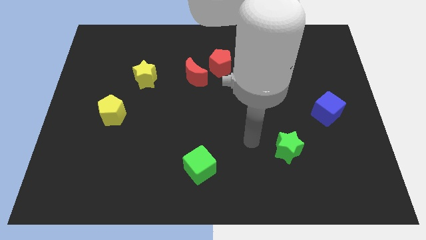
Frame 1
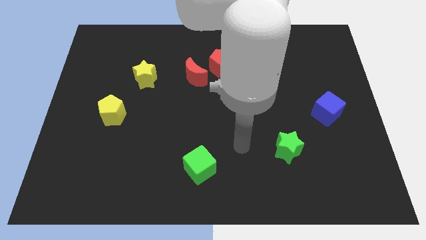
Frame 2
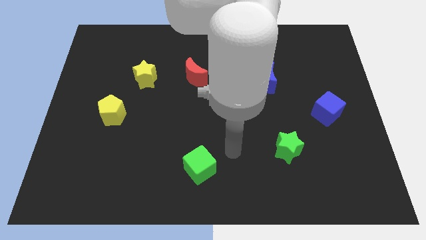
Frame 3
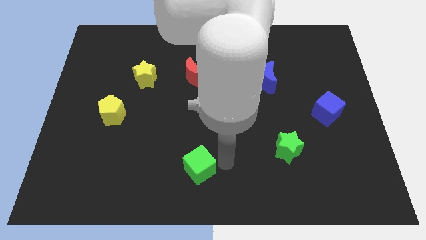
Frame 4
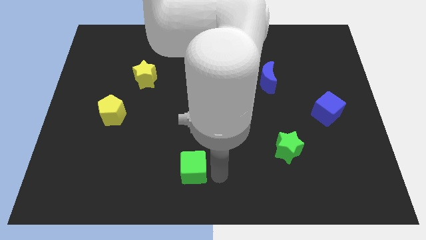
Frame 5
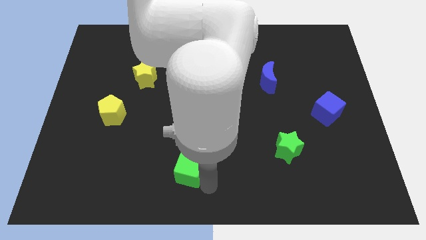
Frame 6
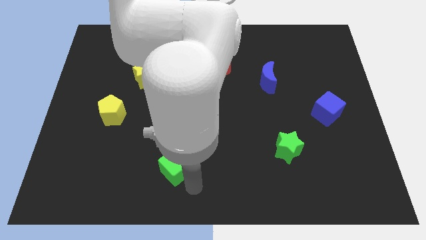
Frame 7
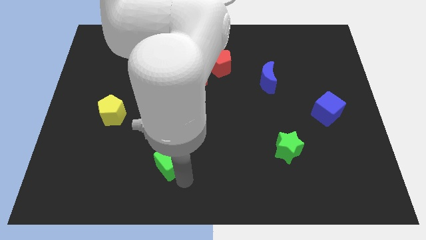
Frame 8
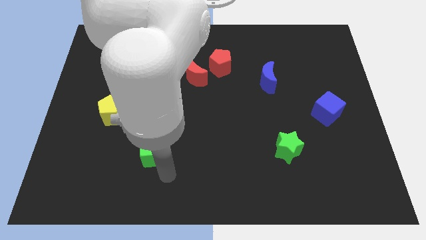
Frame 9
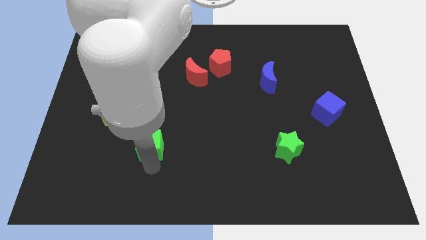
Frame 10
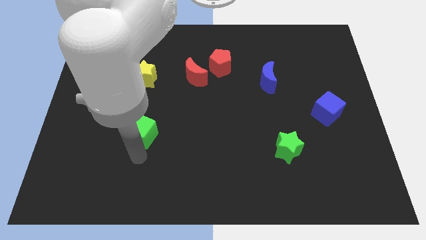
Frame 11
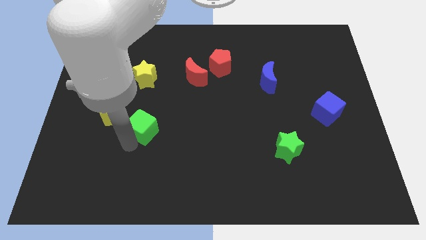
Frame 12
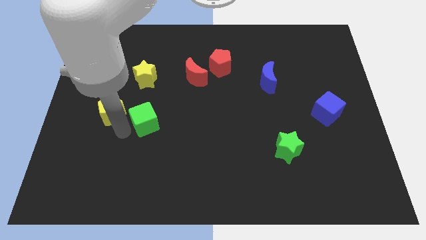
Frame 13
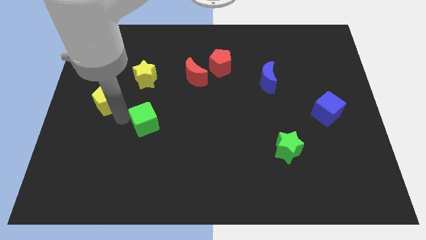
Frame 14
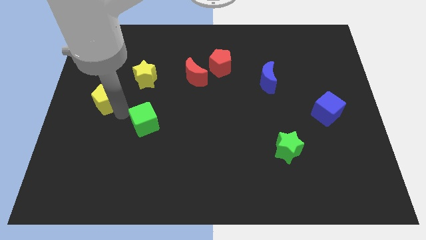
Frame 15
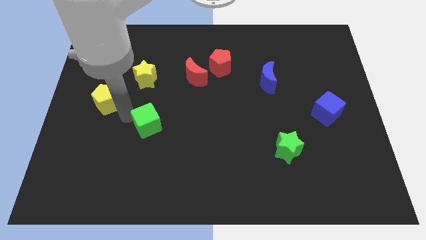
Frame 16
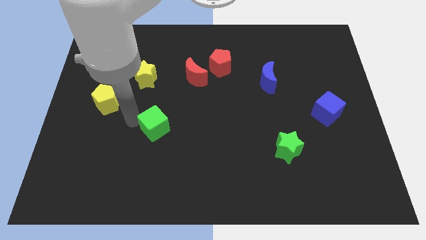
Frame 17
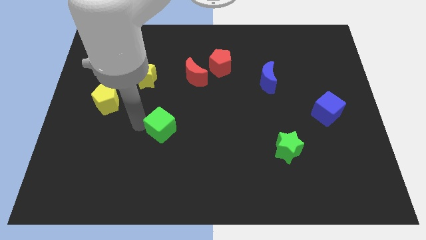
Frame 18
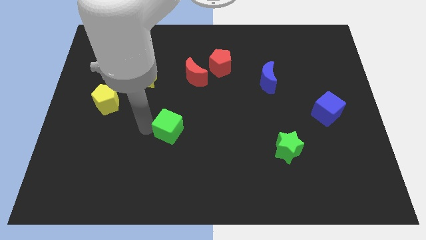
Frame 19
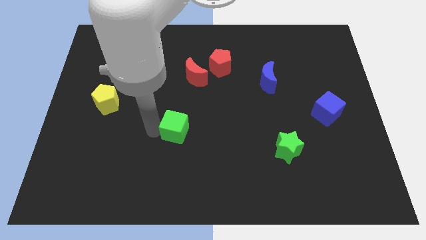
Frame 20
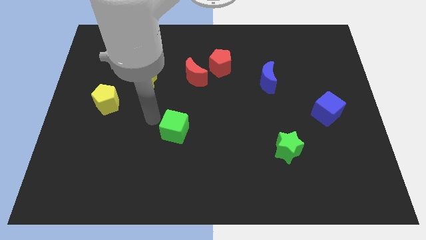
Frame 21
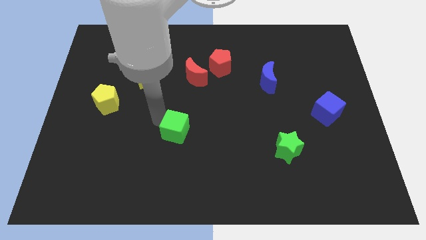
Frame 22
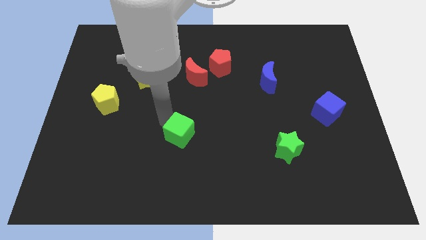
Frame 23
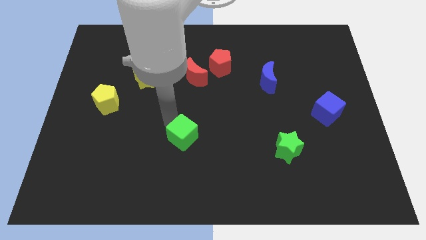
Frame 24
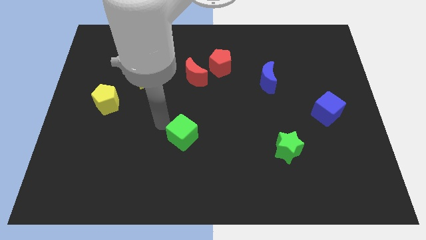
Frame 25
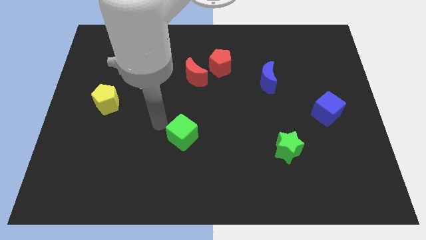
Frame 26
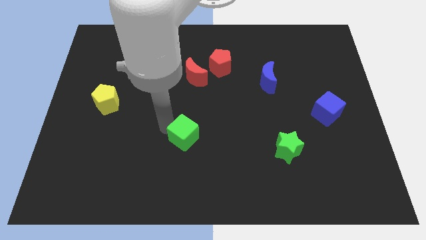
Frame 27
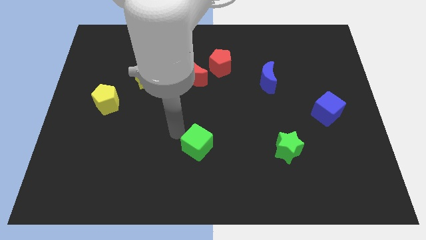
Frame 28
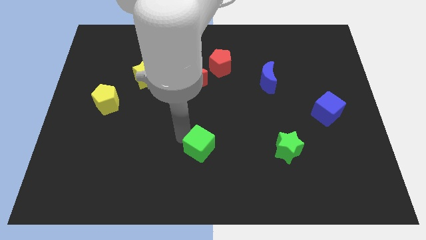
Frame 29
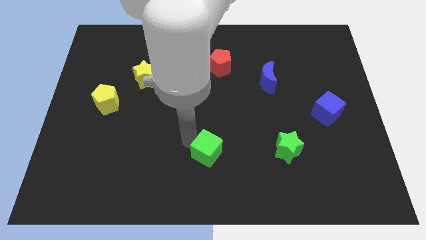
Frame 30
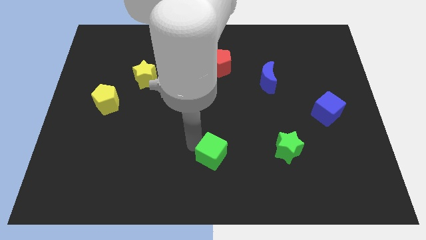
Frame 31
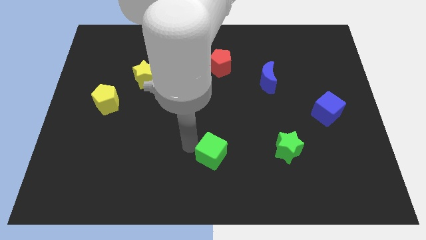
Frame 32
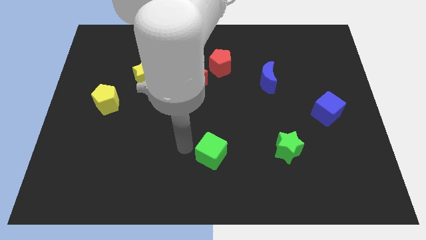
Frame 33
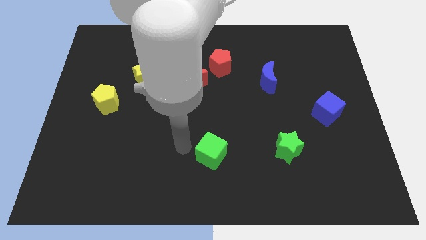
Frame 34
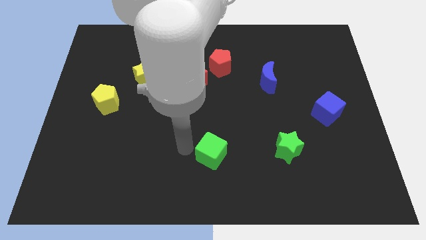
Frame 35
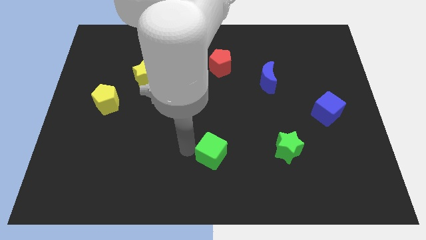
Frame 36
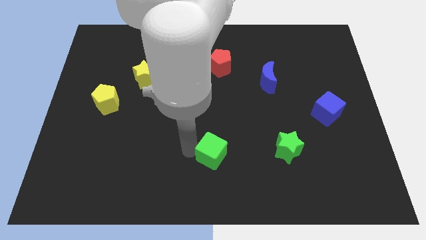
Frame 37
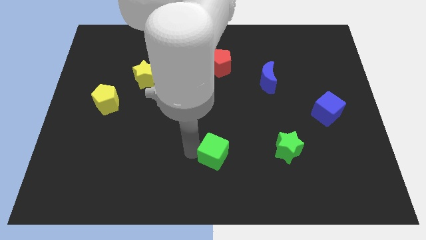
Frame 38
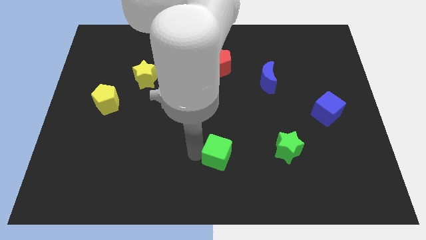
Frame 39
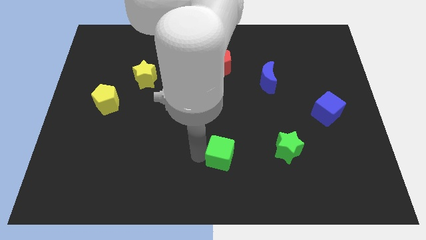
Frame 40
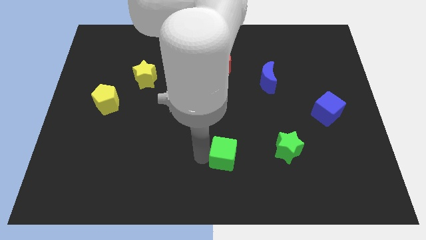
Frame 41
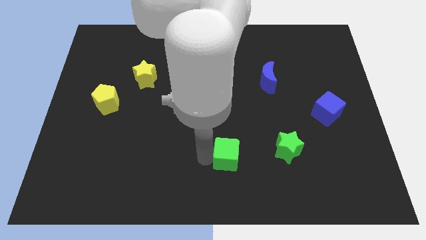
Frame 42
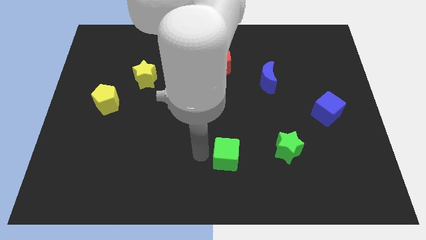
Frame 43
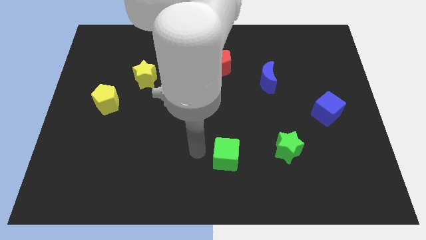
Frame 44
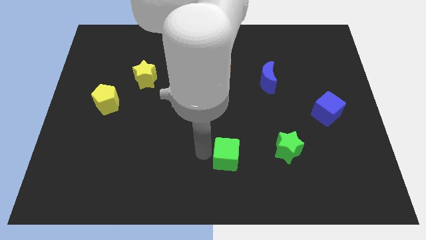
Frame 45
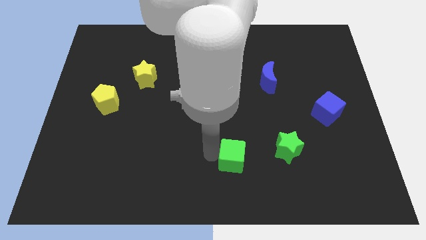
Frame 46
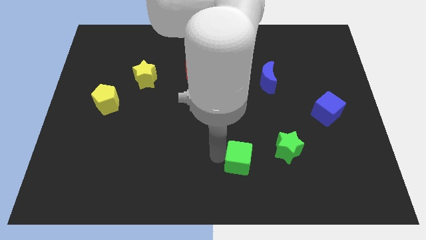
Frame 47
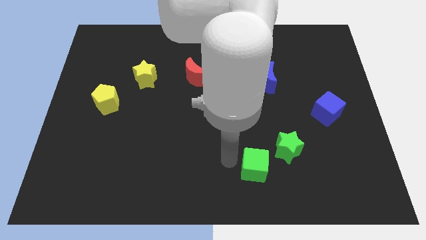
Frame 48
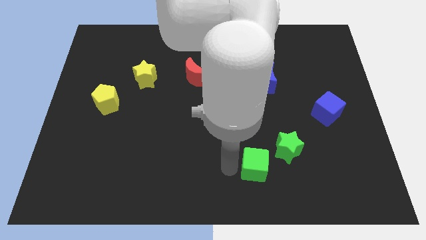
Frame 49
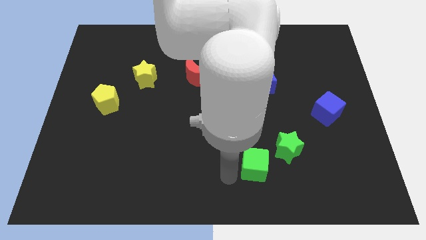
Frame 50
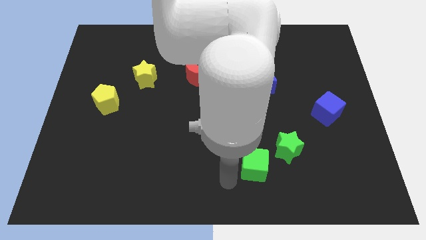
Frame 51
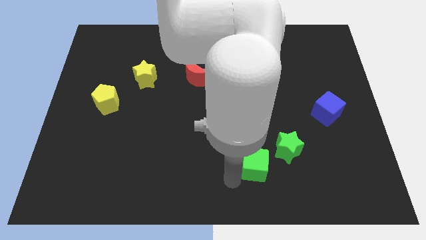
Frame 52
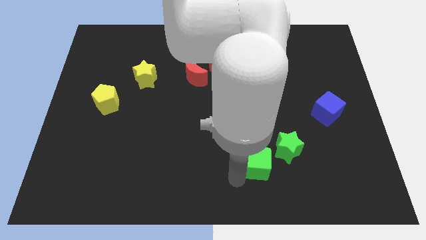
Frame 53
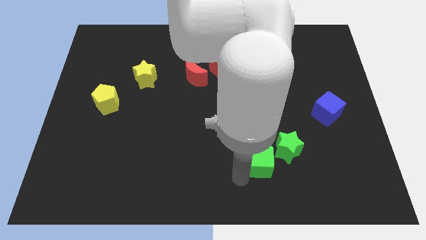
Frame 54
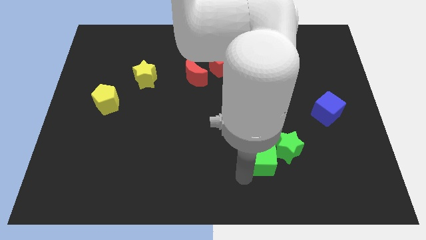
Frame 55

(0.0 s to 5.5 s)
push the green cube towards the green star

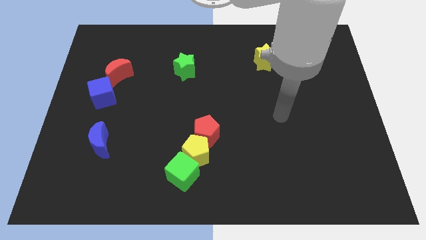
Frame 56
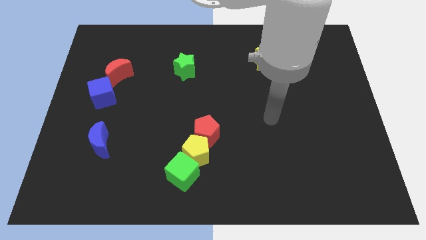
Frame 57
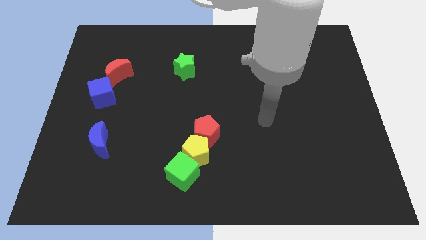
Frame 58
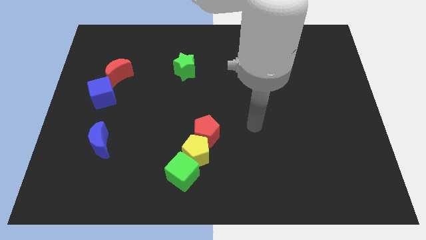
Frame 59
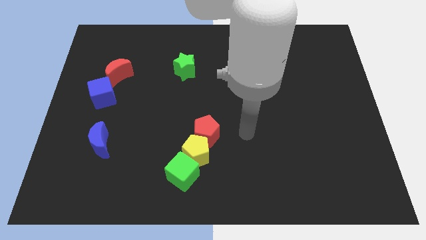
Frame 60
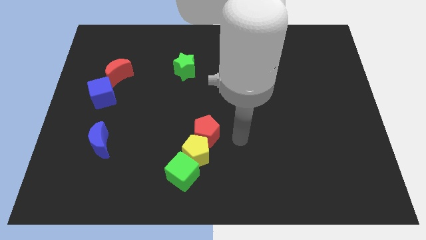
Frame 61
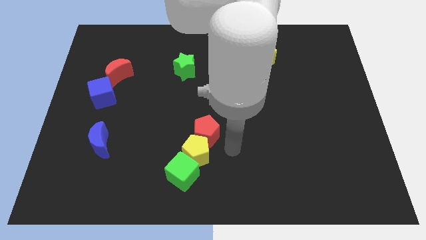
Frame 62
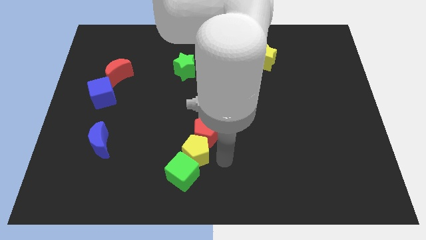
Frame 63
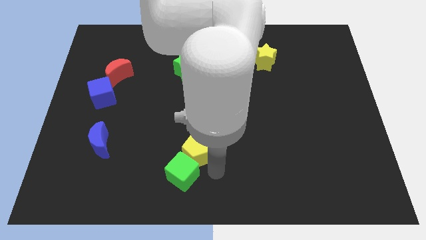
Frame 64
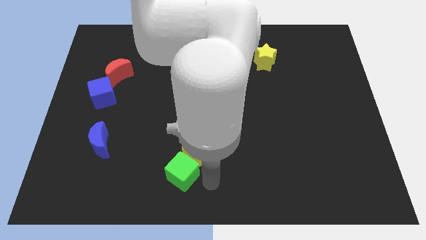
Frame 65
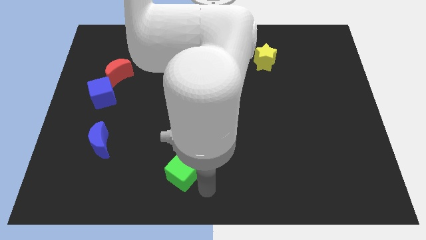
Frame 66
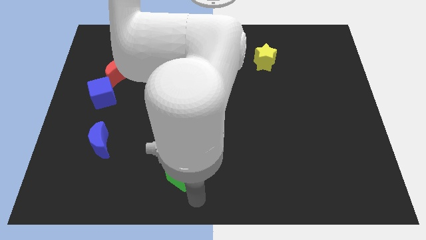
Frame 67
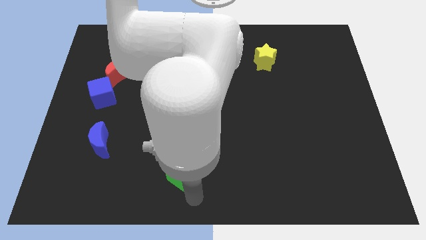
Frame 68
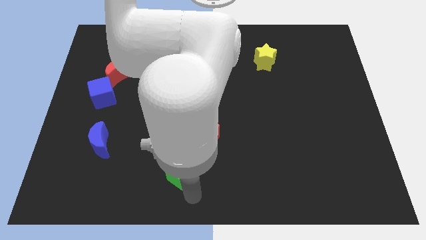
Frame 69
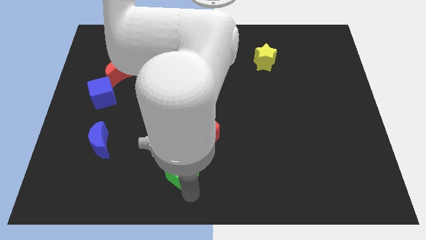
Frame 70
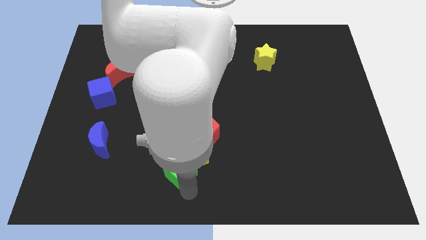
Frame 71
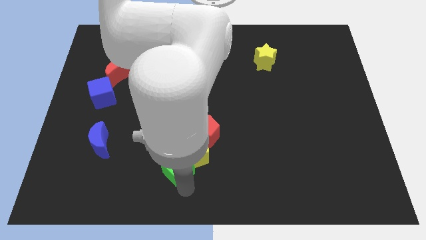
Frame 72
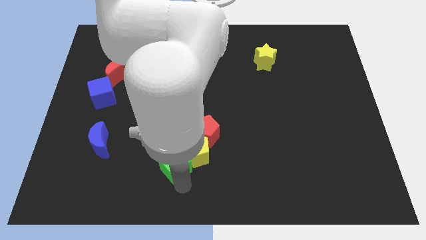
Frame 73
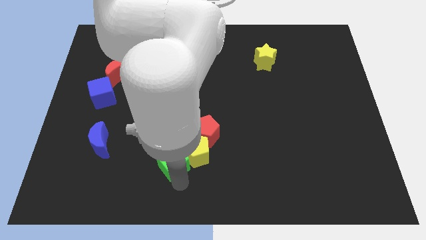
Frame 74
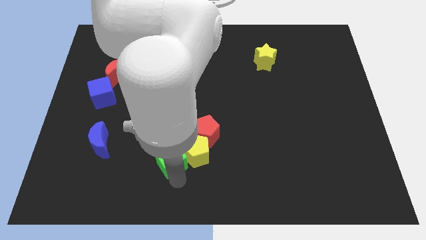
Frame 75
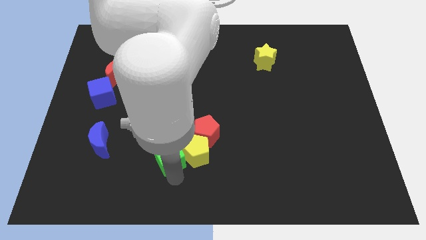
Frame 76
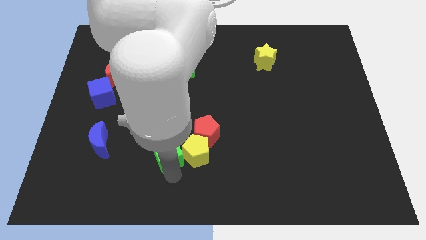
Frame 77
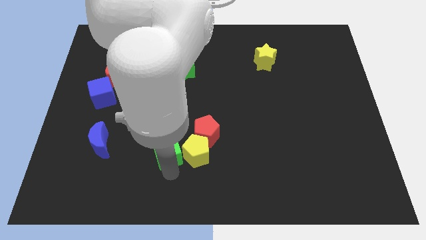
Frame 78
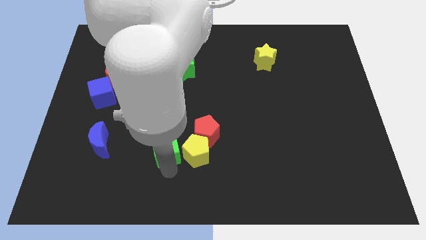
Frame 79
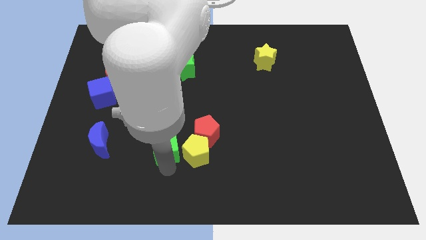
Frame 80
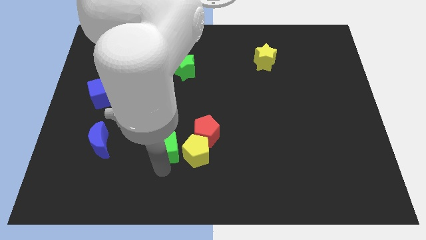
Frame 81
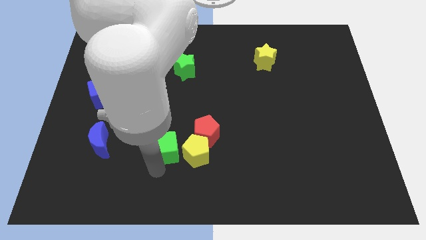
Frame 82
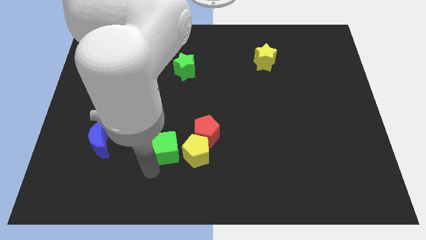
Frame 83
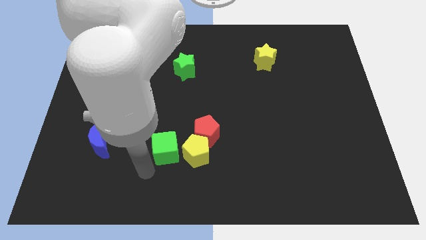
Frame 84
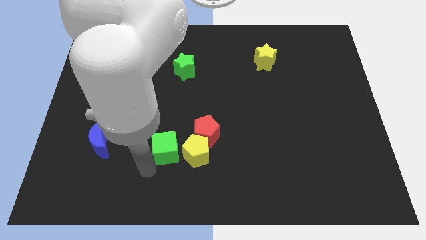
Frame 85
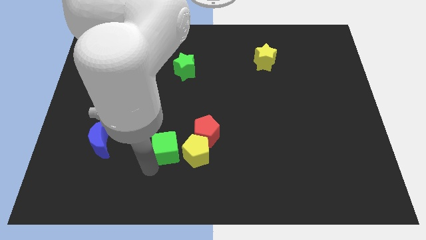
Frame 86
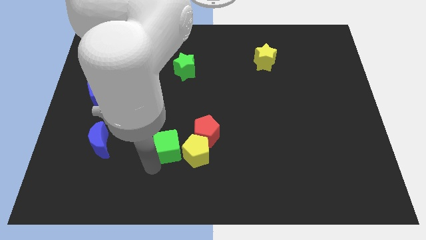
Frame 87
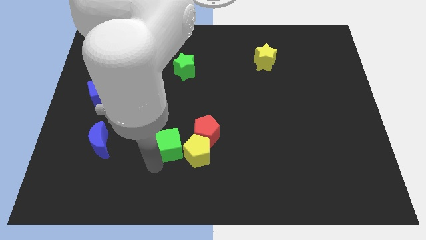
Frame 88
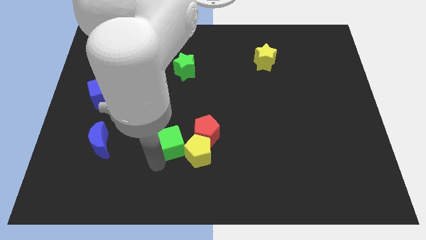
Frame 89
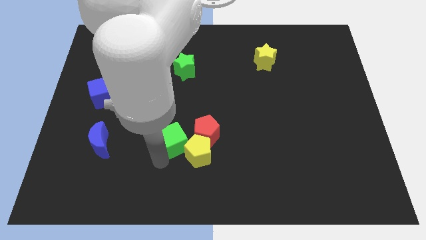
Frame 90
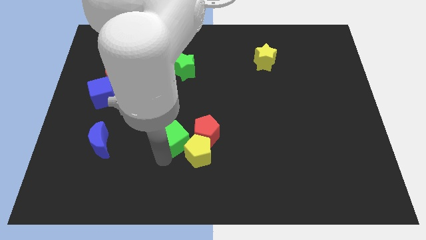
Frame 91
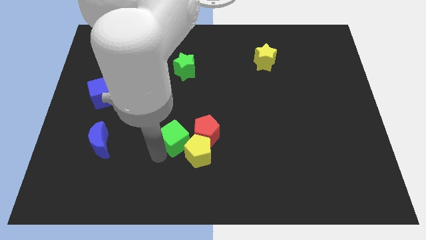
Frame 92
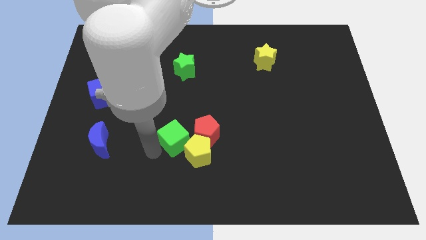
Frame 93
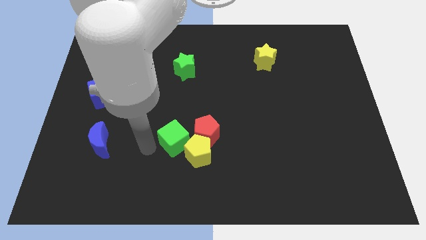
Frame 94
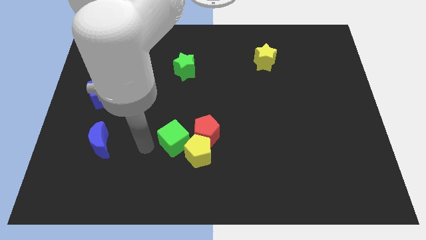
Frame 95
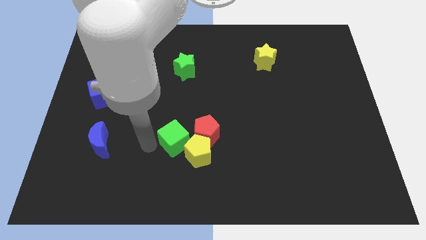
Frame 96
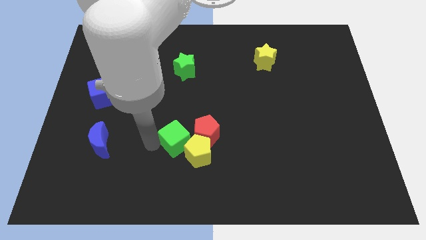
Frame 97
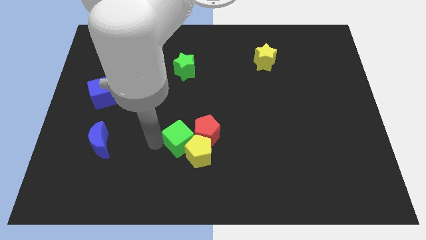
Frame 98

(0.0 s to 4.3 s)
move the green cube close to the red pentagon
